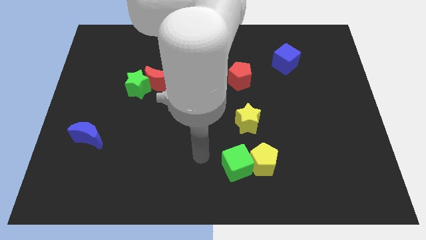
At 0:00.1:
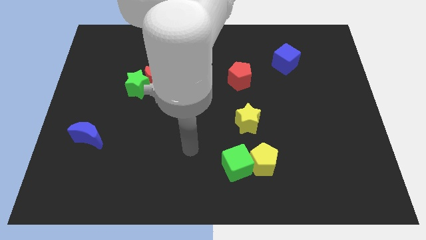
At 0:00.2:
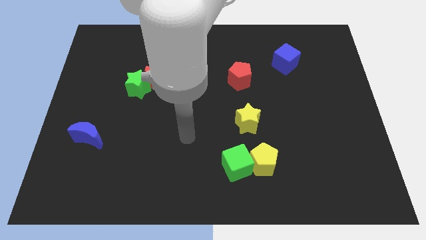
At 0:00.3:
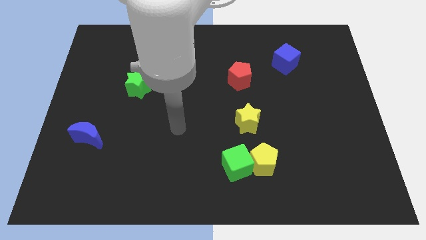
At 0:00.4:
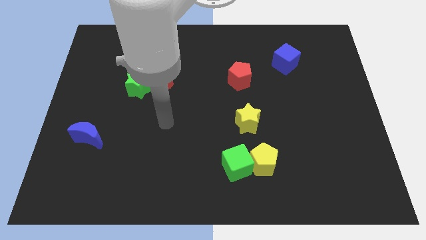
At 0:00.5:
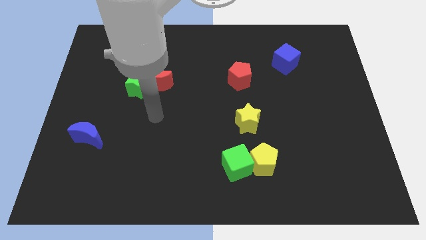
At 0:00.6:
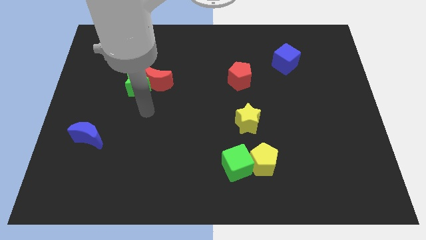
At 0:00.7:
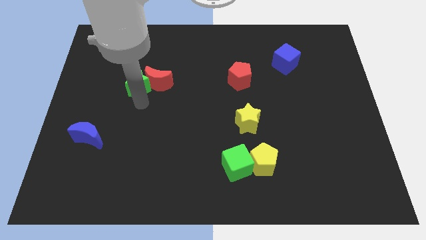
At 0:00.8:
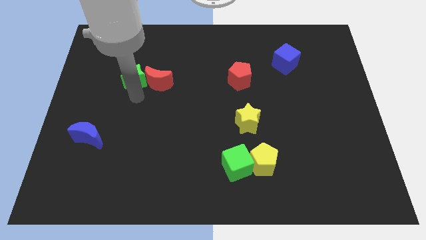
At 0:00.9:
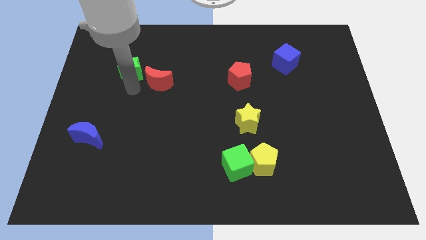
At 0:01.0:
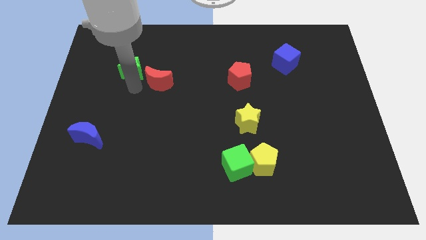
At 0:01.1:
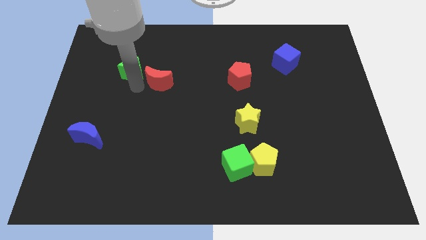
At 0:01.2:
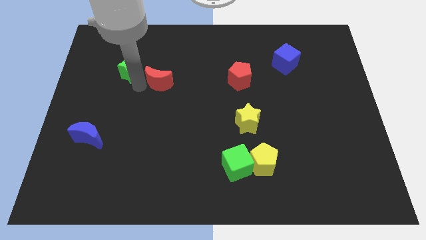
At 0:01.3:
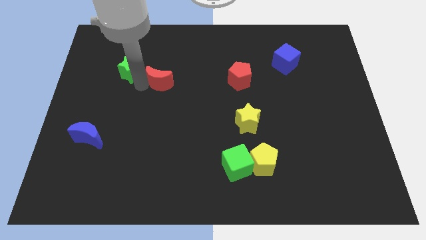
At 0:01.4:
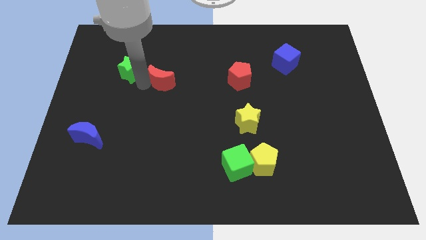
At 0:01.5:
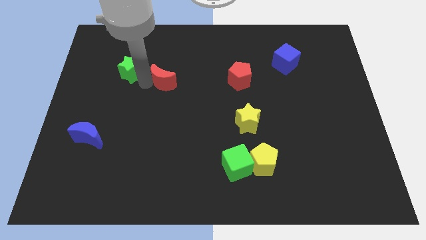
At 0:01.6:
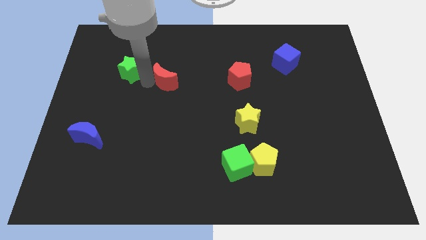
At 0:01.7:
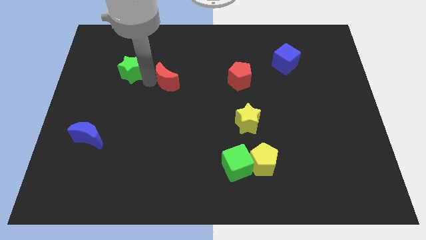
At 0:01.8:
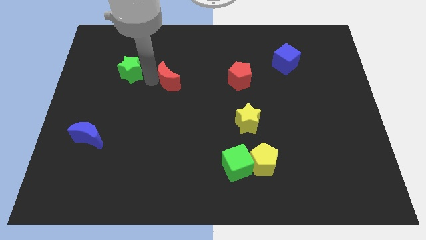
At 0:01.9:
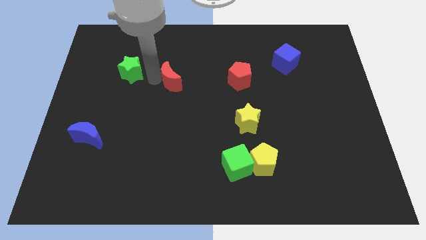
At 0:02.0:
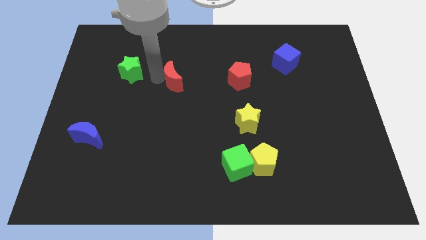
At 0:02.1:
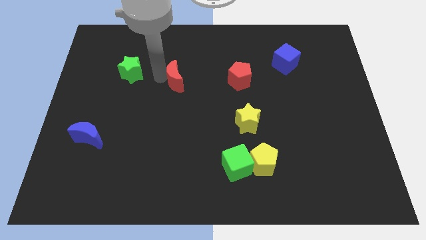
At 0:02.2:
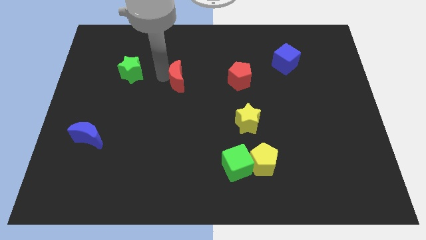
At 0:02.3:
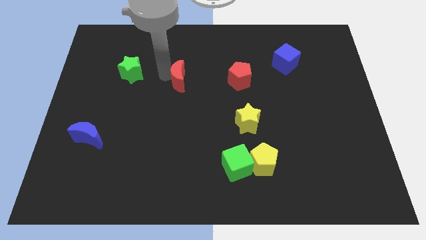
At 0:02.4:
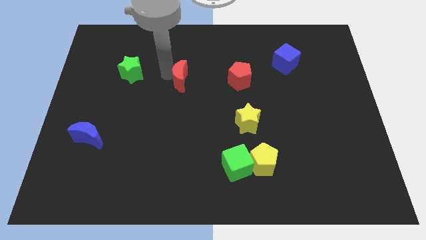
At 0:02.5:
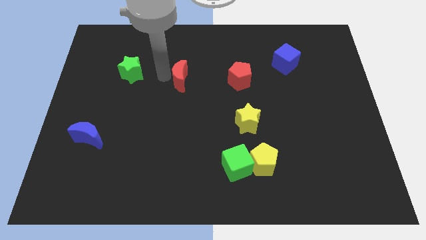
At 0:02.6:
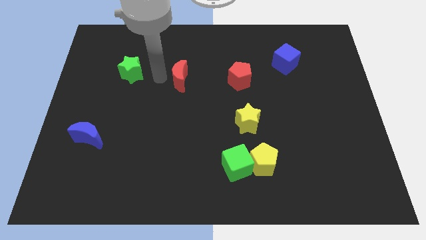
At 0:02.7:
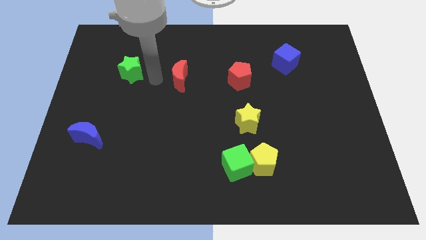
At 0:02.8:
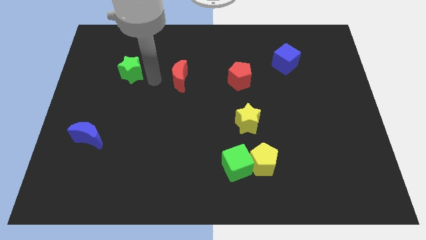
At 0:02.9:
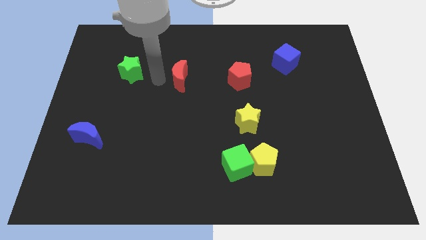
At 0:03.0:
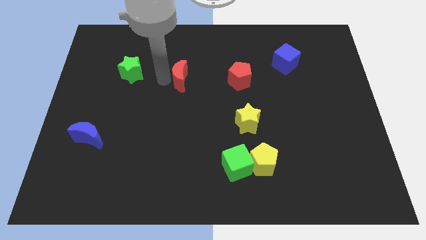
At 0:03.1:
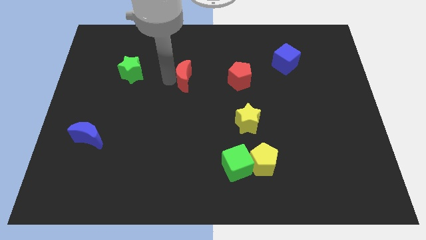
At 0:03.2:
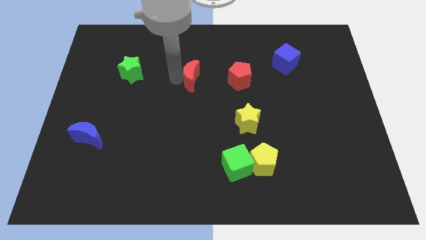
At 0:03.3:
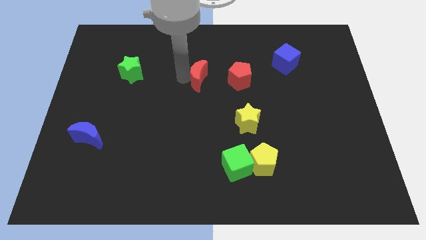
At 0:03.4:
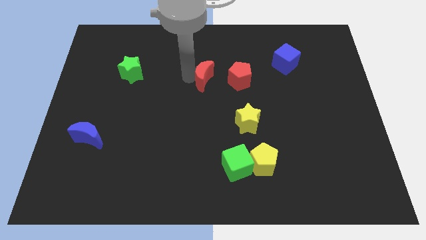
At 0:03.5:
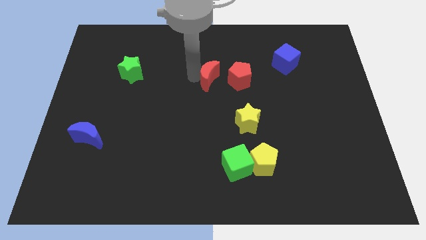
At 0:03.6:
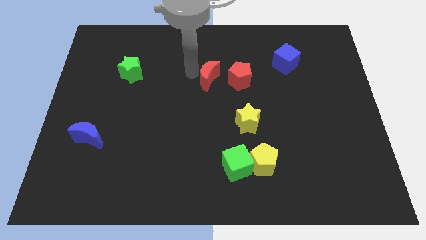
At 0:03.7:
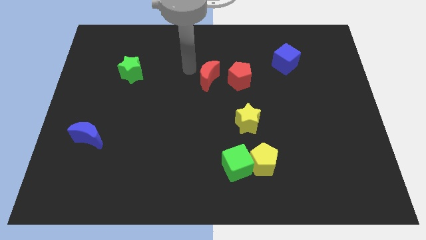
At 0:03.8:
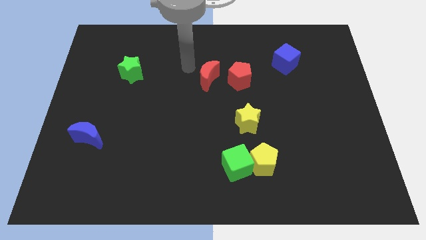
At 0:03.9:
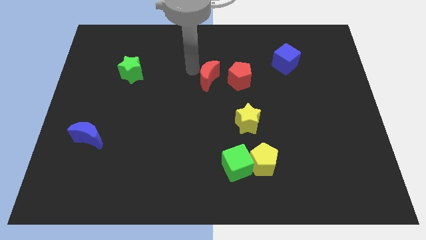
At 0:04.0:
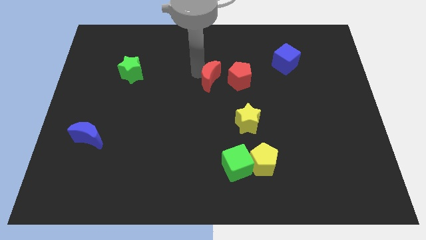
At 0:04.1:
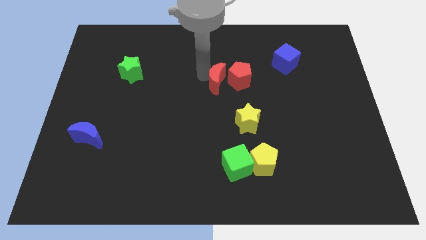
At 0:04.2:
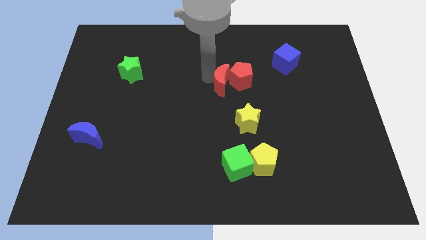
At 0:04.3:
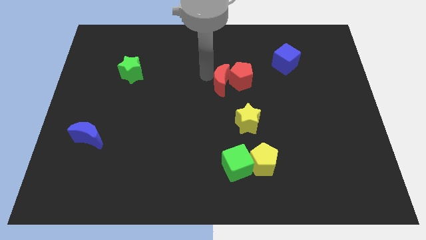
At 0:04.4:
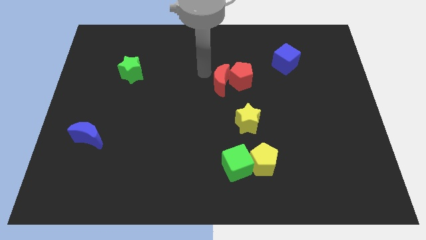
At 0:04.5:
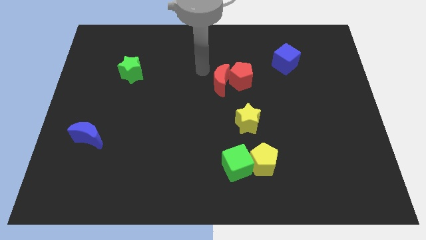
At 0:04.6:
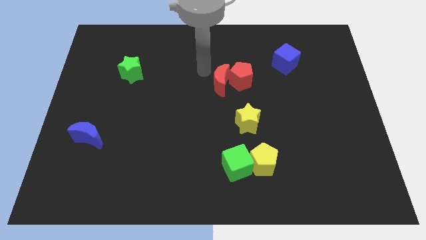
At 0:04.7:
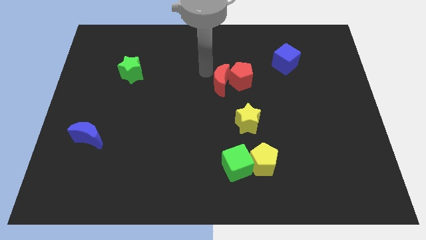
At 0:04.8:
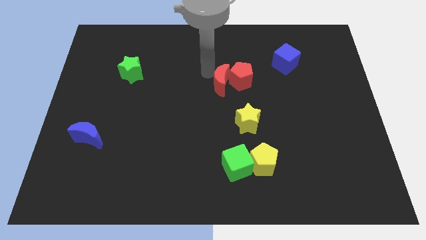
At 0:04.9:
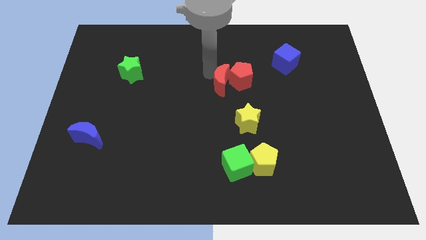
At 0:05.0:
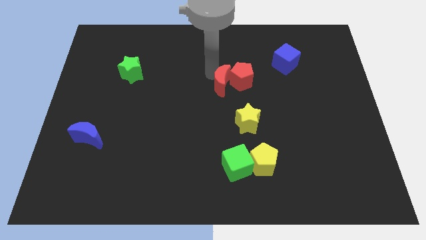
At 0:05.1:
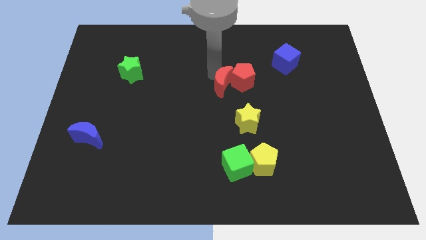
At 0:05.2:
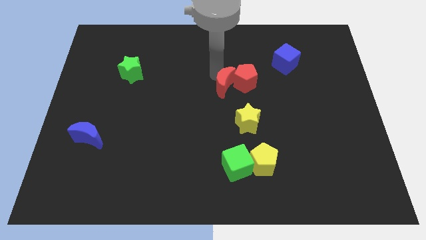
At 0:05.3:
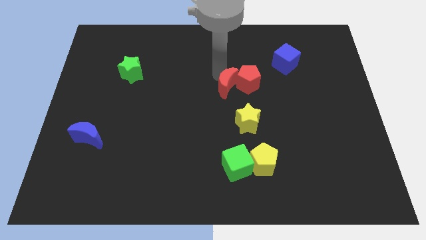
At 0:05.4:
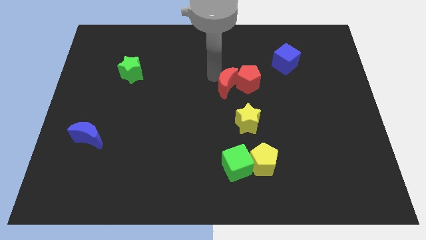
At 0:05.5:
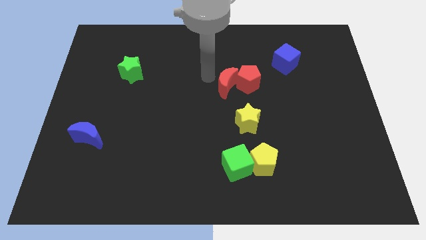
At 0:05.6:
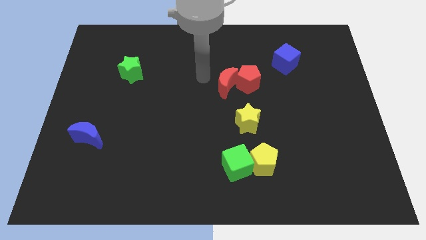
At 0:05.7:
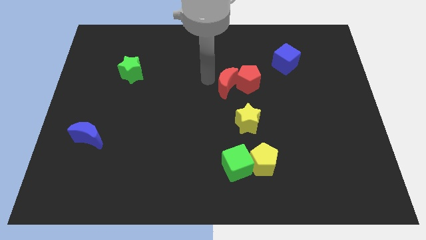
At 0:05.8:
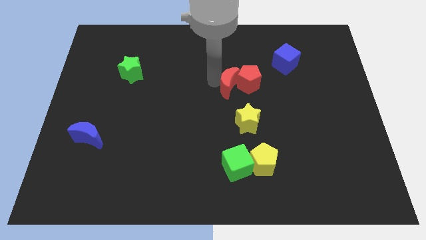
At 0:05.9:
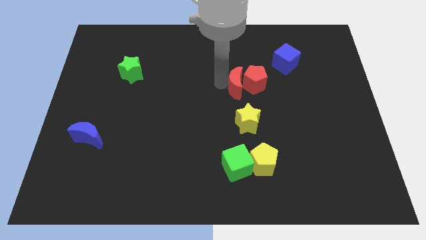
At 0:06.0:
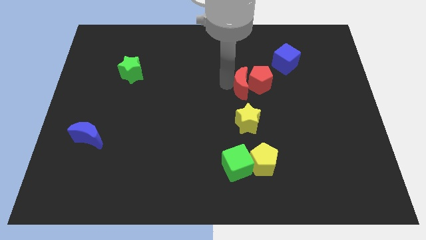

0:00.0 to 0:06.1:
push the red moon right

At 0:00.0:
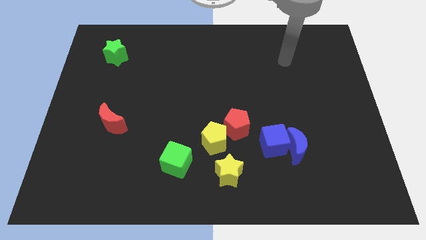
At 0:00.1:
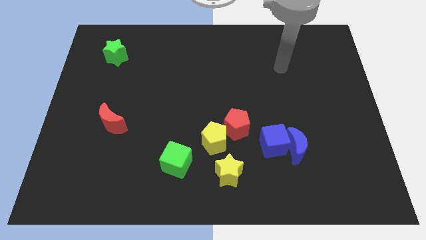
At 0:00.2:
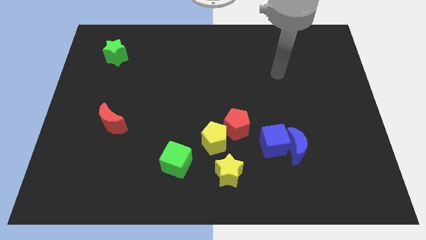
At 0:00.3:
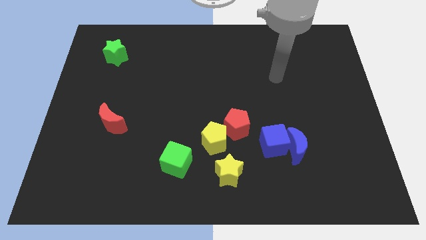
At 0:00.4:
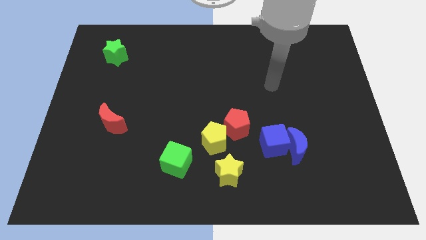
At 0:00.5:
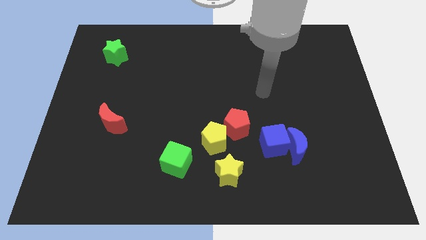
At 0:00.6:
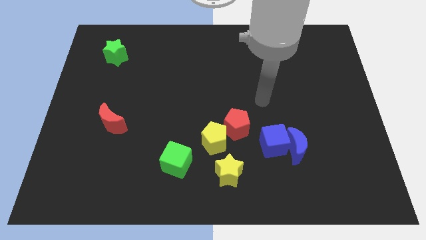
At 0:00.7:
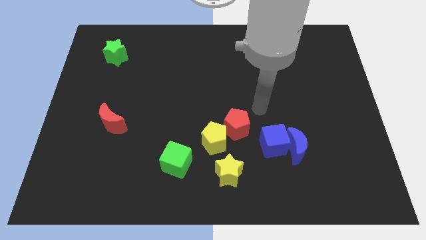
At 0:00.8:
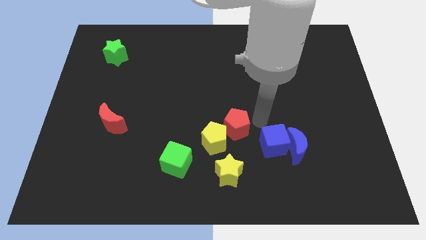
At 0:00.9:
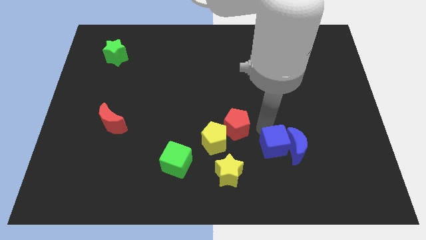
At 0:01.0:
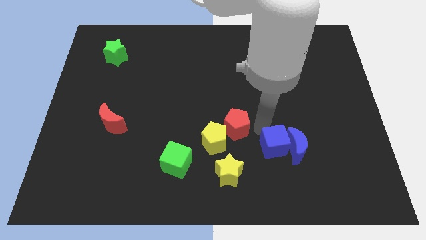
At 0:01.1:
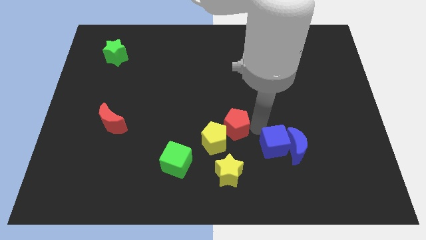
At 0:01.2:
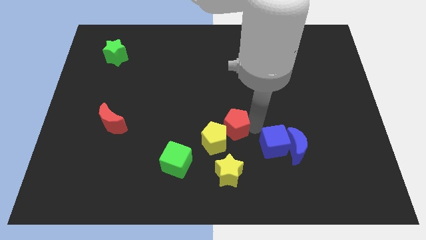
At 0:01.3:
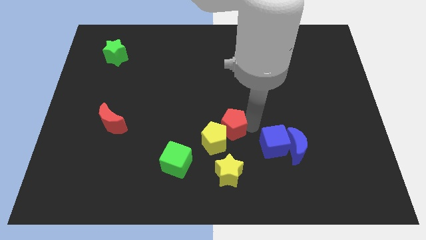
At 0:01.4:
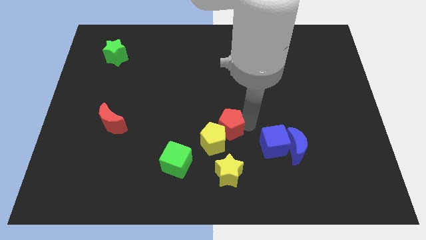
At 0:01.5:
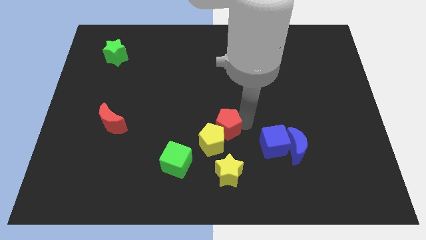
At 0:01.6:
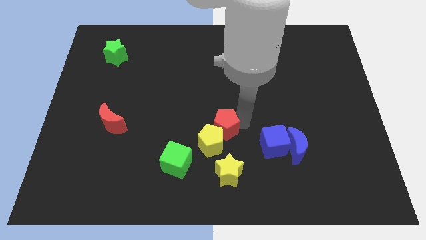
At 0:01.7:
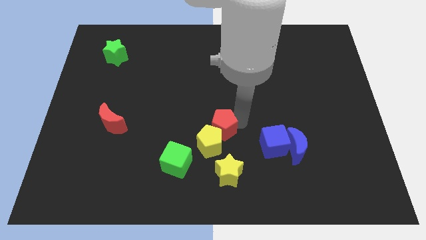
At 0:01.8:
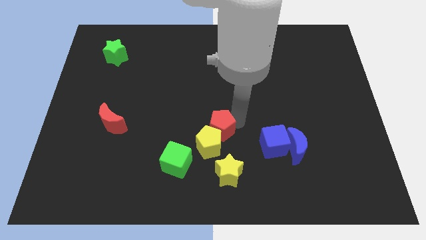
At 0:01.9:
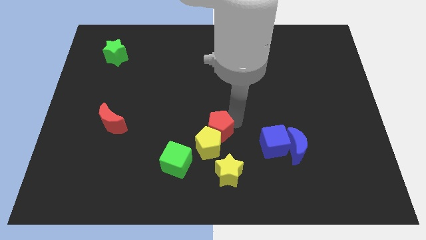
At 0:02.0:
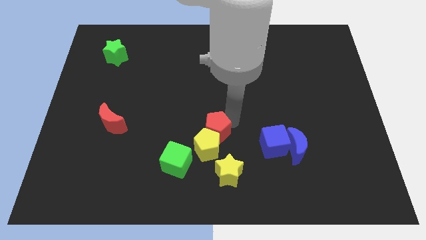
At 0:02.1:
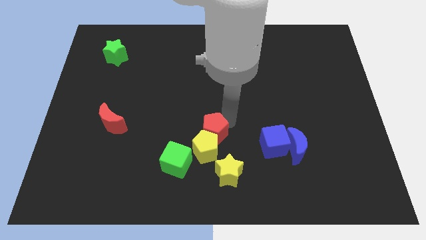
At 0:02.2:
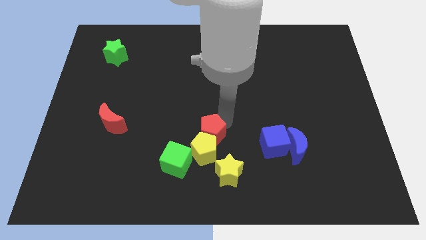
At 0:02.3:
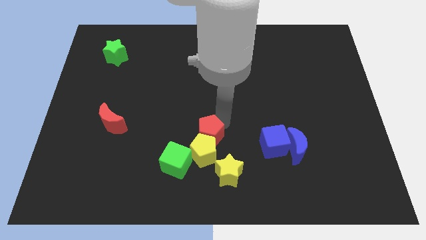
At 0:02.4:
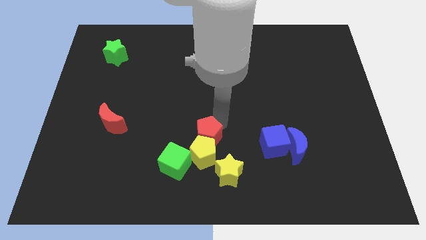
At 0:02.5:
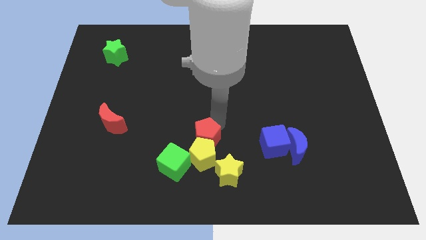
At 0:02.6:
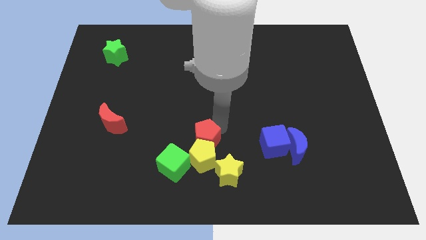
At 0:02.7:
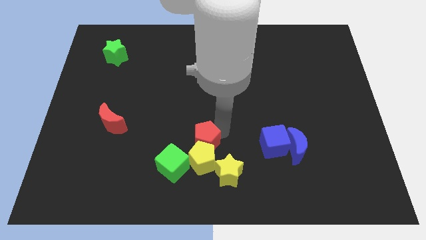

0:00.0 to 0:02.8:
move the red pentagon a little bit down and left
